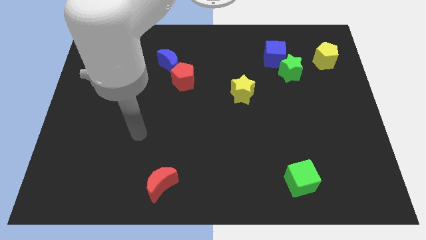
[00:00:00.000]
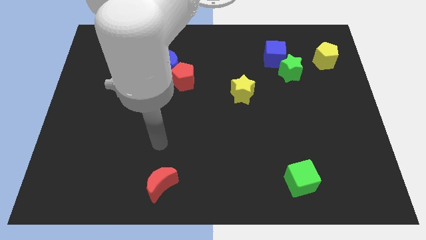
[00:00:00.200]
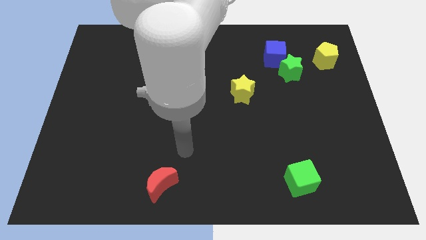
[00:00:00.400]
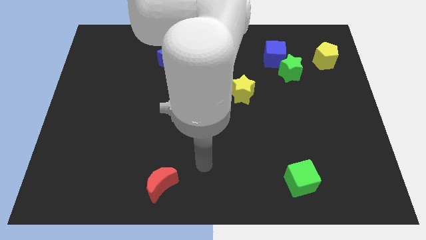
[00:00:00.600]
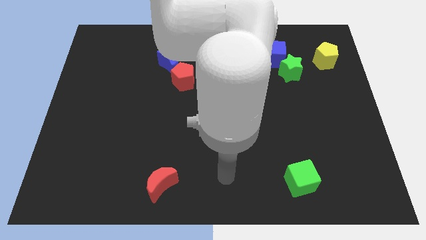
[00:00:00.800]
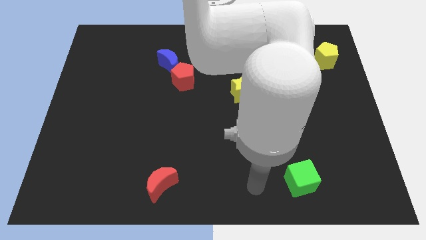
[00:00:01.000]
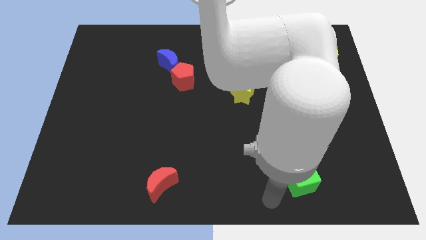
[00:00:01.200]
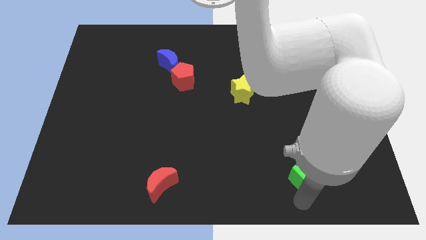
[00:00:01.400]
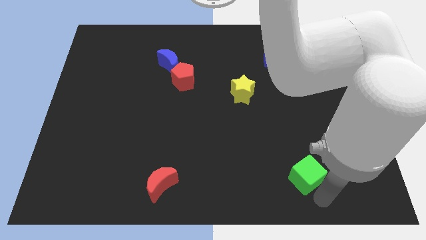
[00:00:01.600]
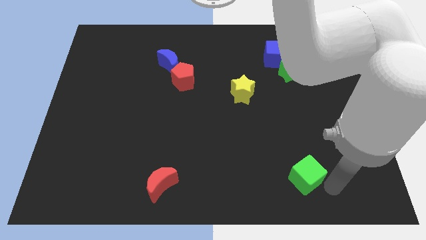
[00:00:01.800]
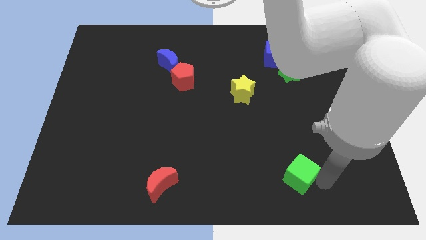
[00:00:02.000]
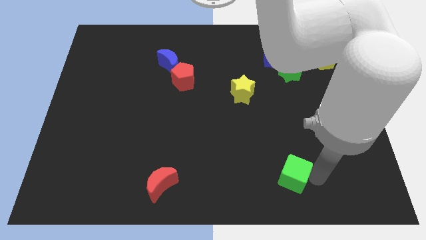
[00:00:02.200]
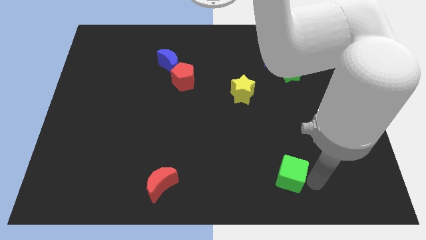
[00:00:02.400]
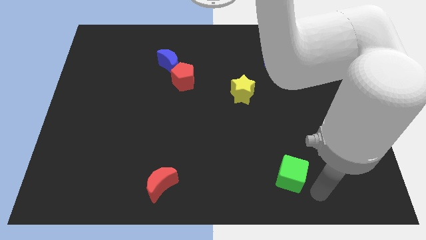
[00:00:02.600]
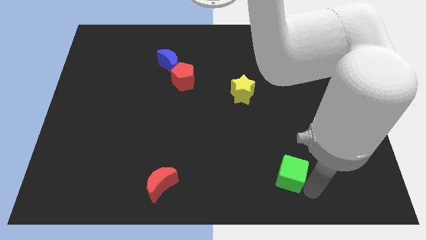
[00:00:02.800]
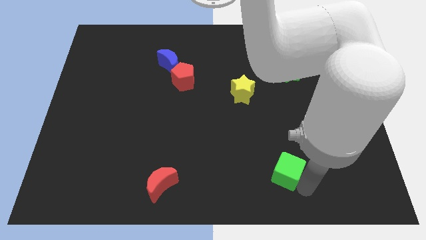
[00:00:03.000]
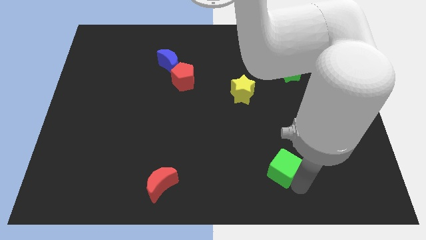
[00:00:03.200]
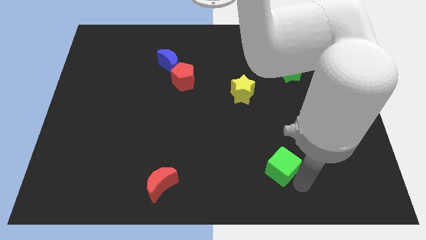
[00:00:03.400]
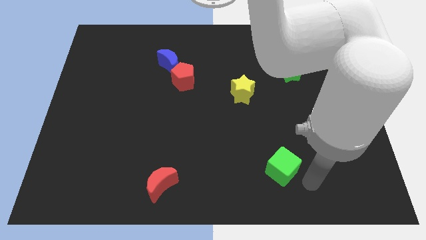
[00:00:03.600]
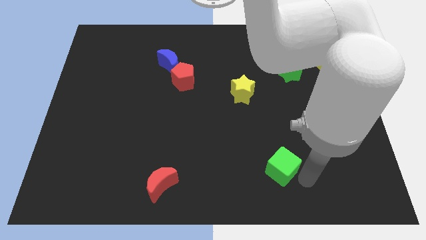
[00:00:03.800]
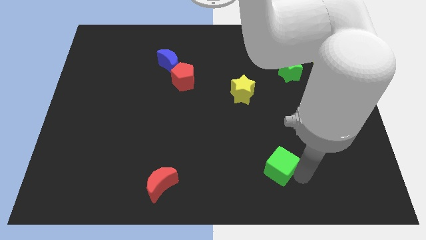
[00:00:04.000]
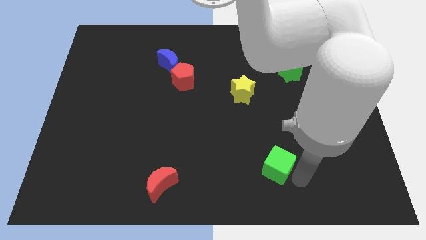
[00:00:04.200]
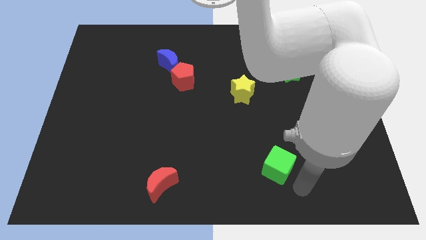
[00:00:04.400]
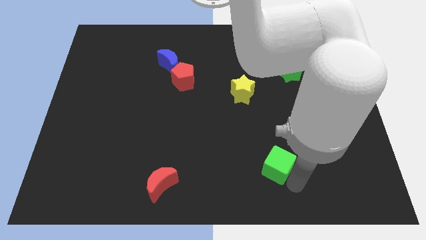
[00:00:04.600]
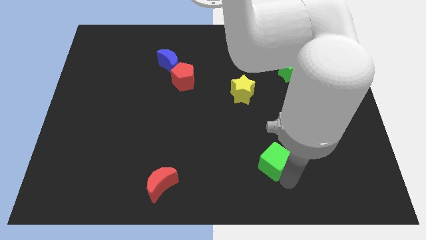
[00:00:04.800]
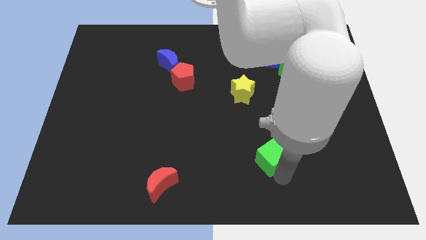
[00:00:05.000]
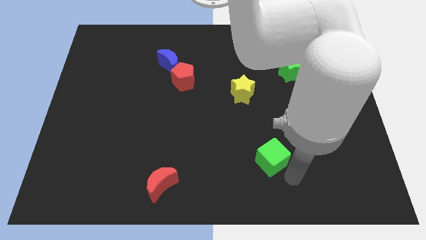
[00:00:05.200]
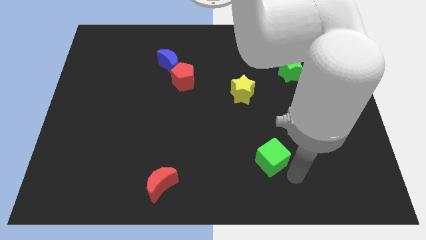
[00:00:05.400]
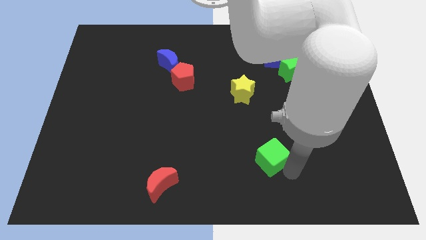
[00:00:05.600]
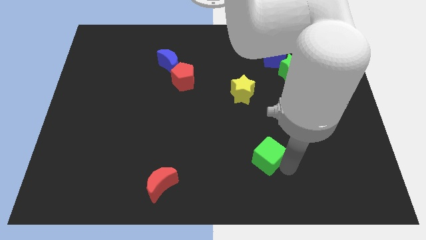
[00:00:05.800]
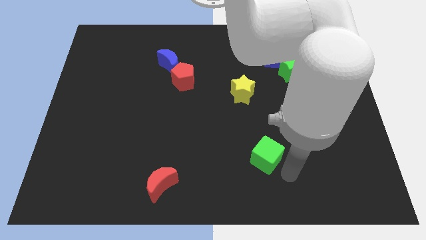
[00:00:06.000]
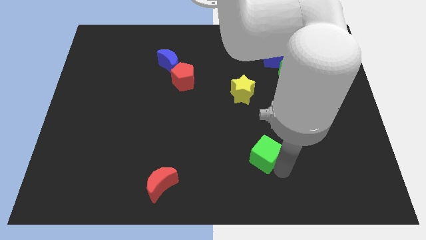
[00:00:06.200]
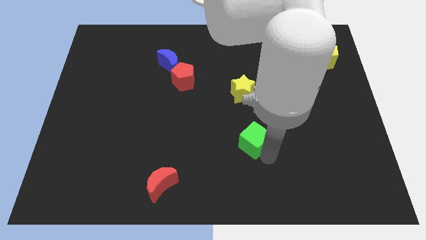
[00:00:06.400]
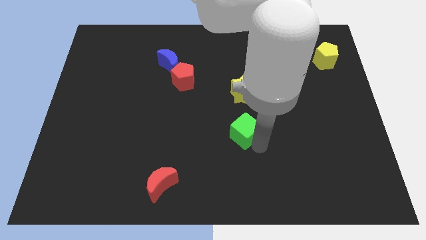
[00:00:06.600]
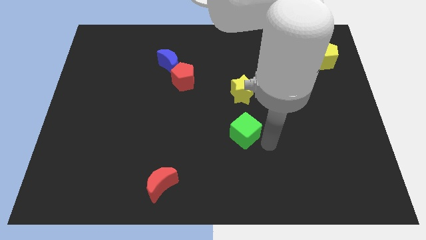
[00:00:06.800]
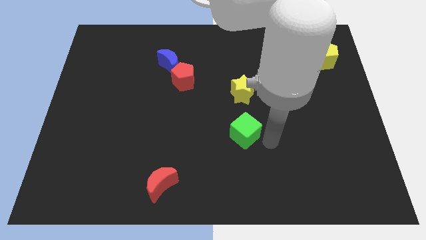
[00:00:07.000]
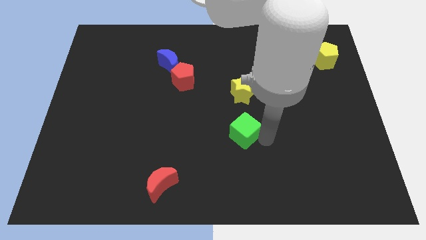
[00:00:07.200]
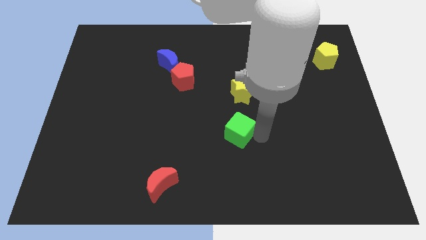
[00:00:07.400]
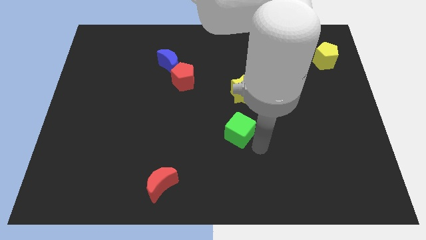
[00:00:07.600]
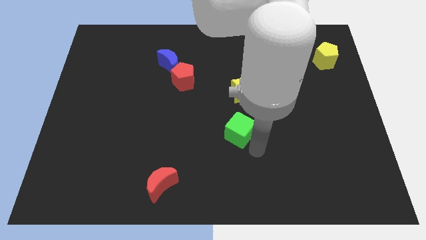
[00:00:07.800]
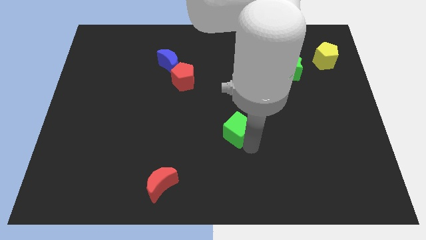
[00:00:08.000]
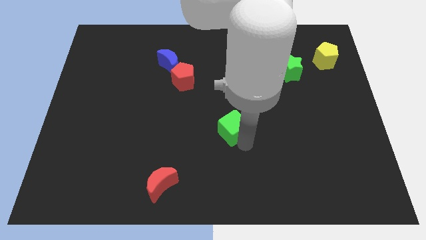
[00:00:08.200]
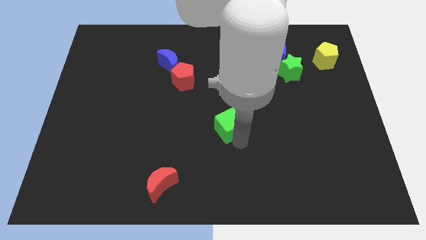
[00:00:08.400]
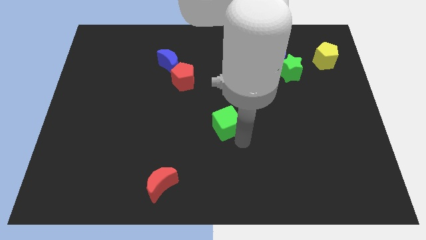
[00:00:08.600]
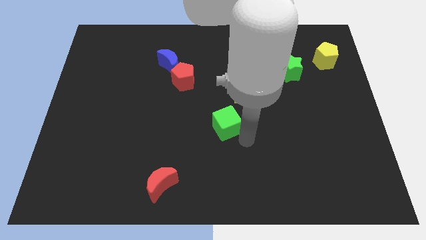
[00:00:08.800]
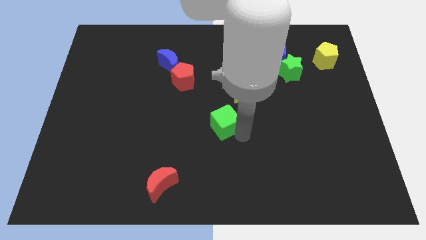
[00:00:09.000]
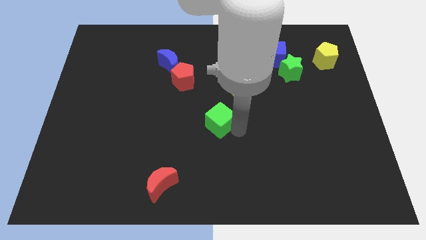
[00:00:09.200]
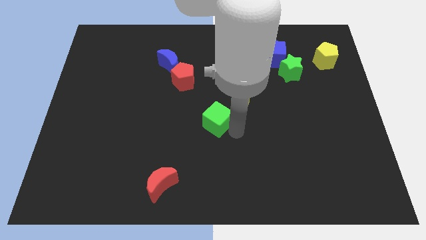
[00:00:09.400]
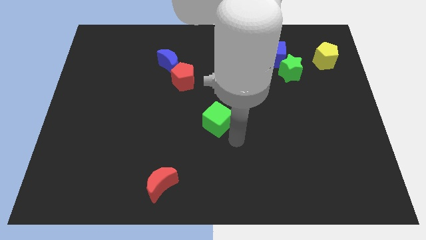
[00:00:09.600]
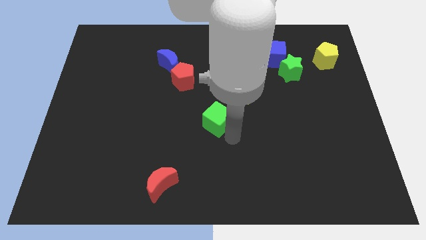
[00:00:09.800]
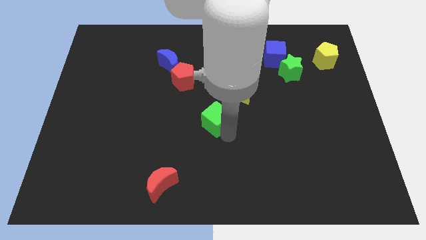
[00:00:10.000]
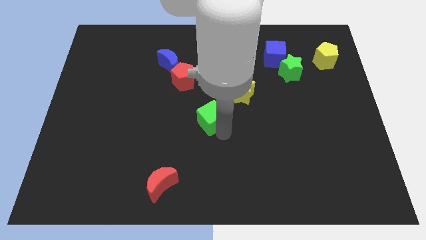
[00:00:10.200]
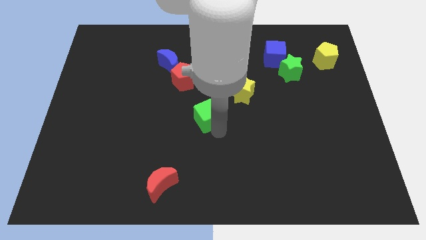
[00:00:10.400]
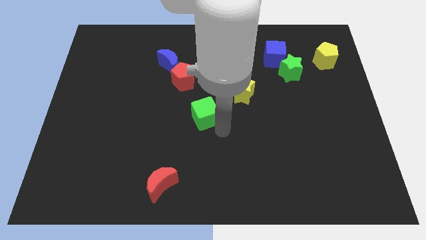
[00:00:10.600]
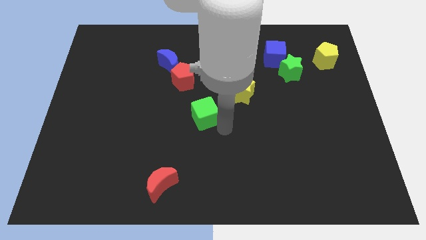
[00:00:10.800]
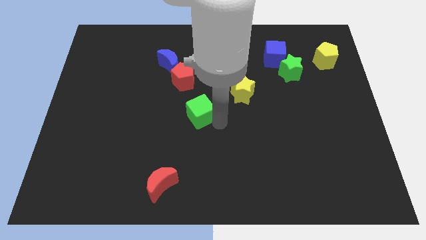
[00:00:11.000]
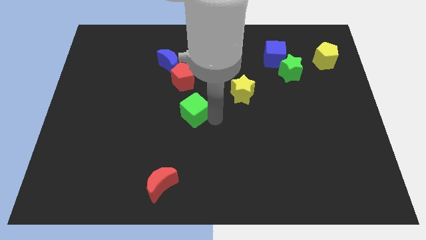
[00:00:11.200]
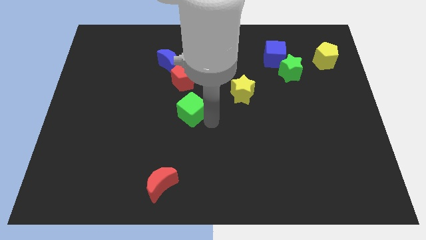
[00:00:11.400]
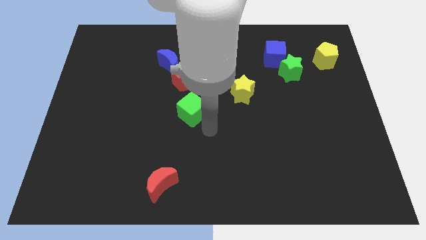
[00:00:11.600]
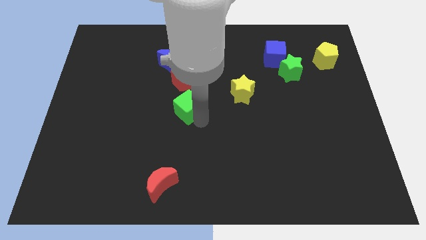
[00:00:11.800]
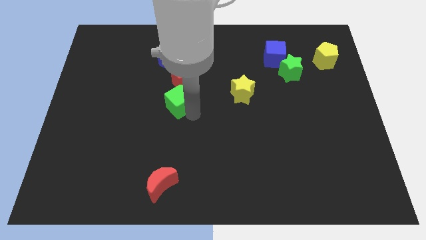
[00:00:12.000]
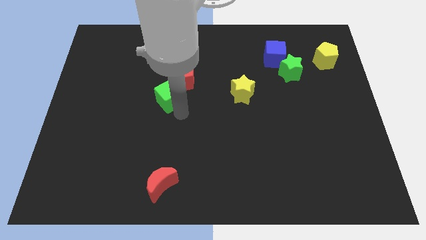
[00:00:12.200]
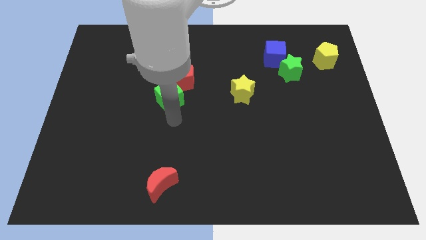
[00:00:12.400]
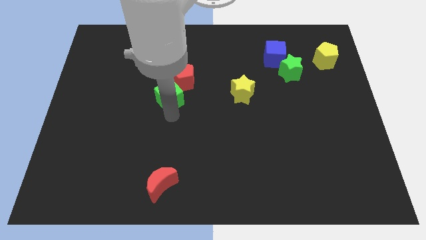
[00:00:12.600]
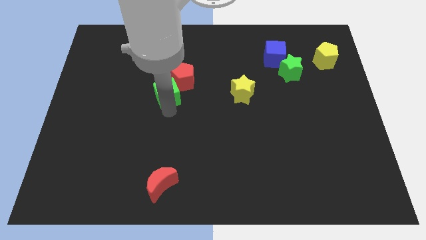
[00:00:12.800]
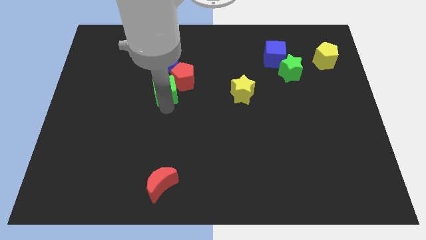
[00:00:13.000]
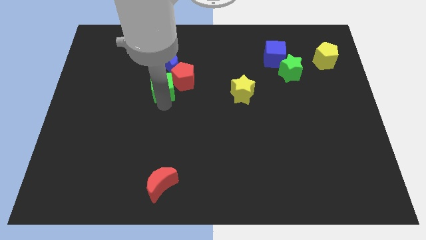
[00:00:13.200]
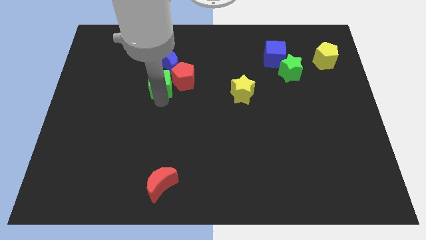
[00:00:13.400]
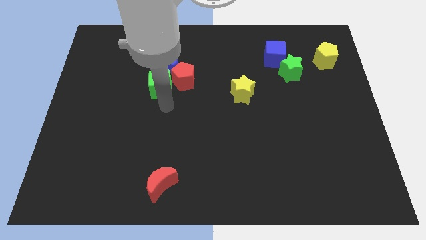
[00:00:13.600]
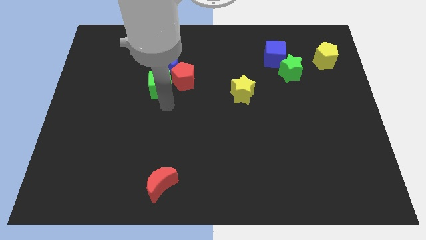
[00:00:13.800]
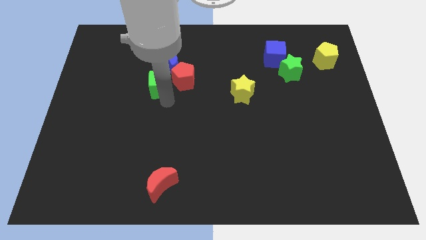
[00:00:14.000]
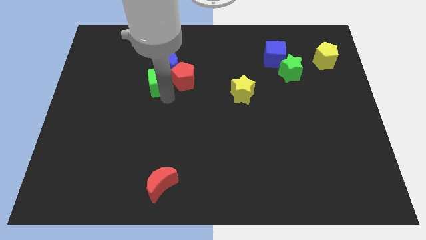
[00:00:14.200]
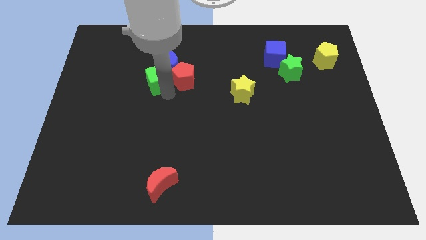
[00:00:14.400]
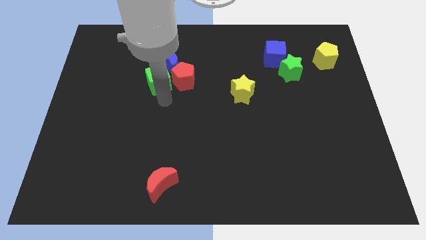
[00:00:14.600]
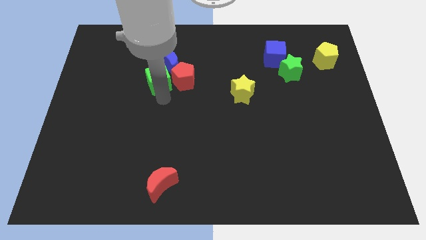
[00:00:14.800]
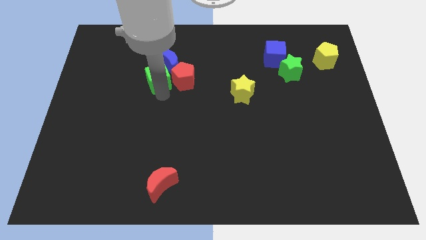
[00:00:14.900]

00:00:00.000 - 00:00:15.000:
push the green cube to the top left of the red pentagon
